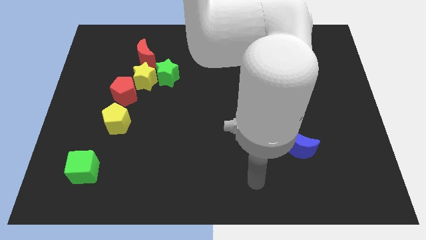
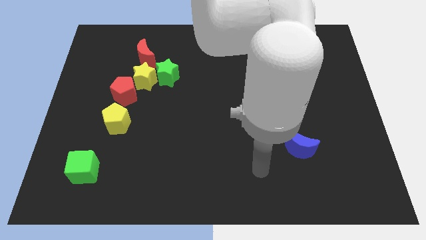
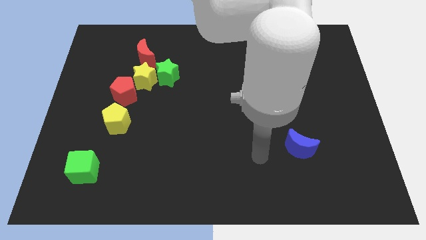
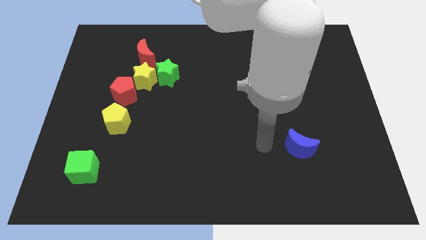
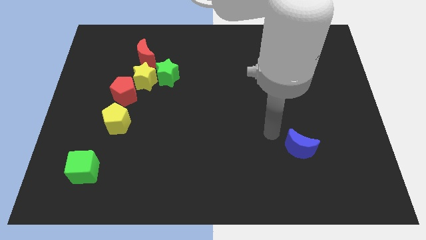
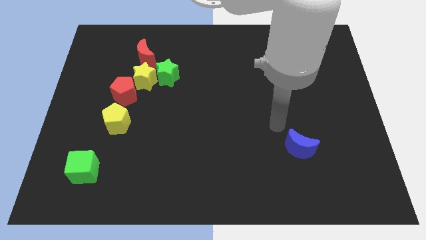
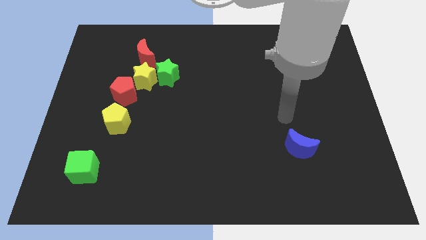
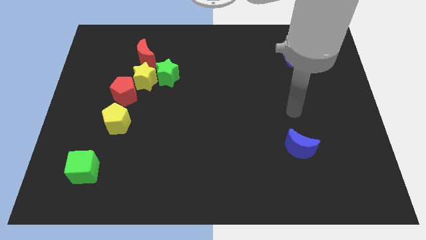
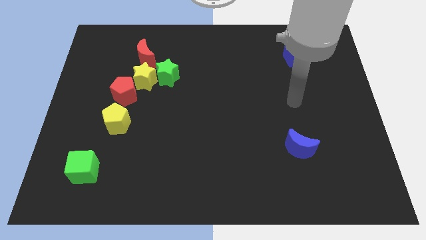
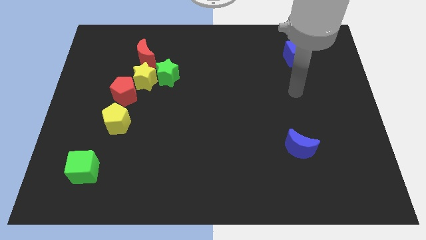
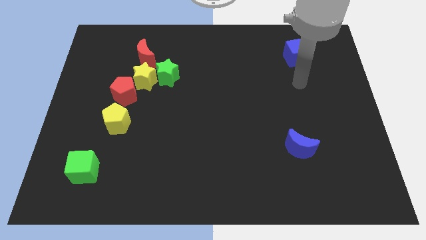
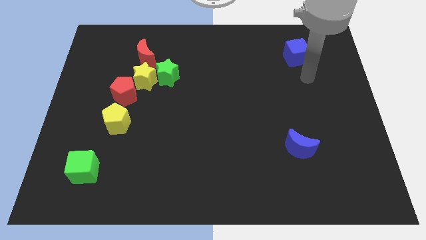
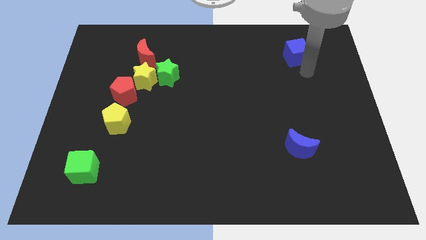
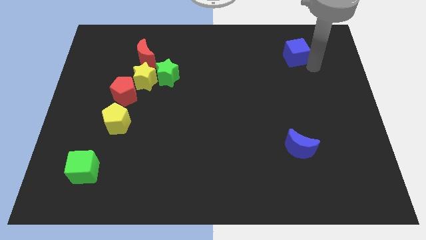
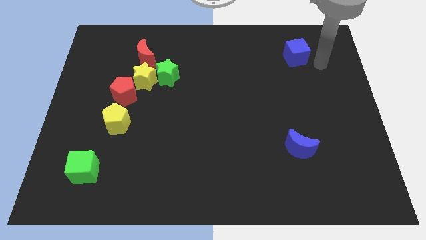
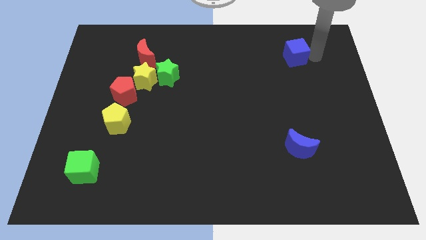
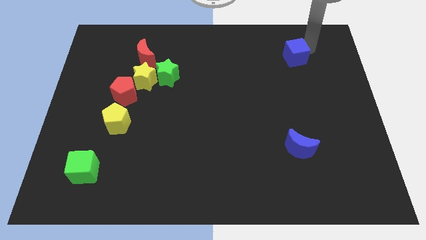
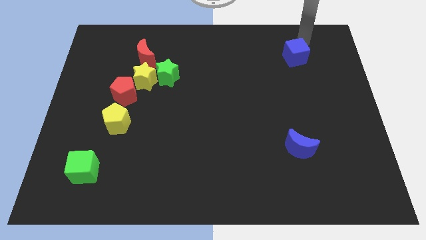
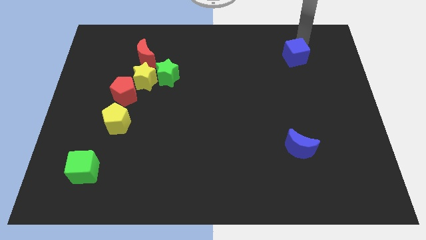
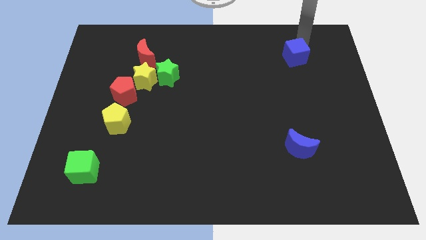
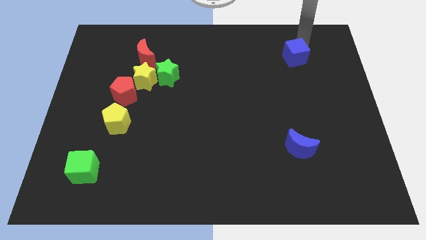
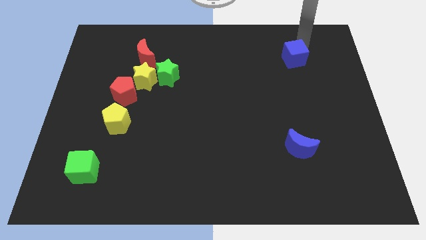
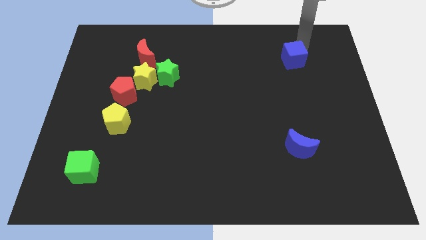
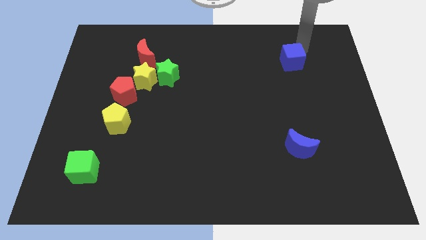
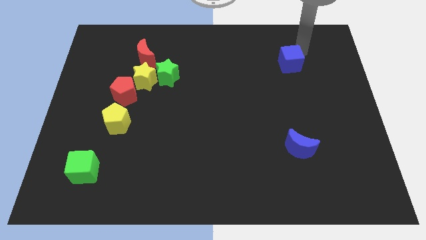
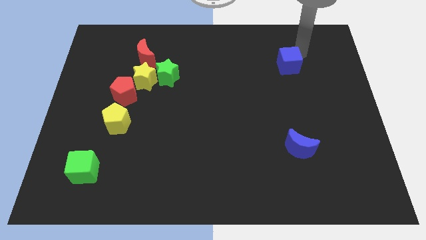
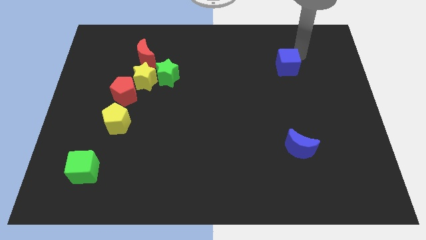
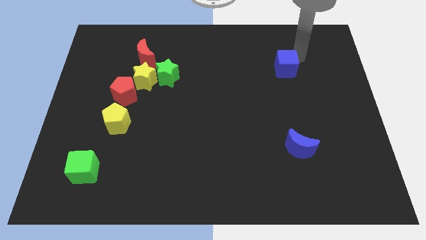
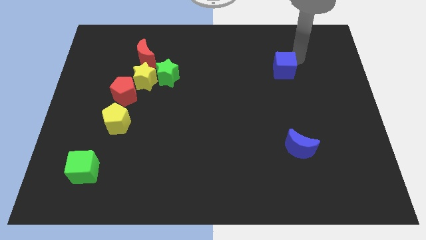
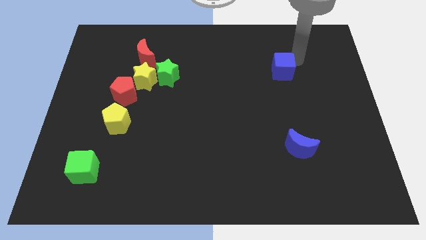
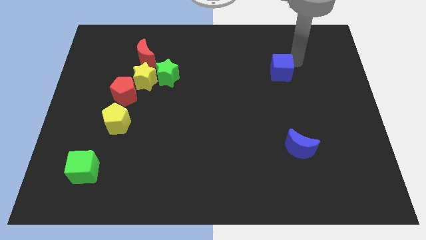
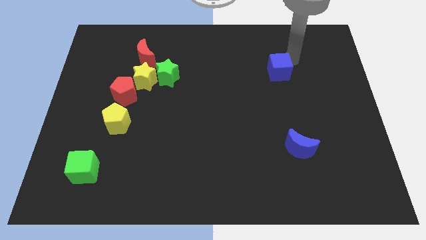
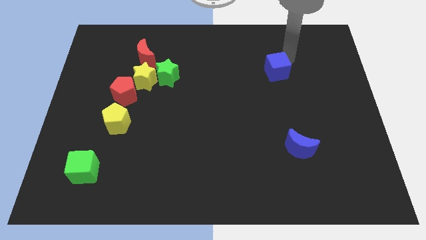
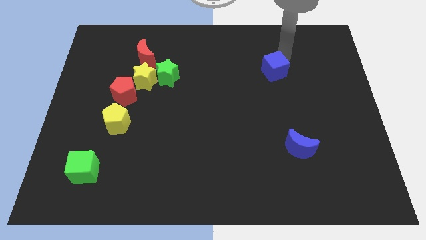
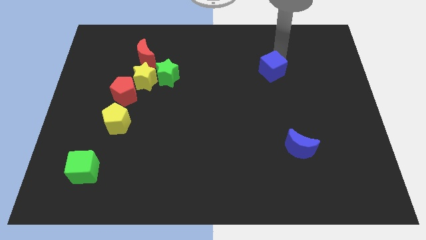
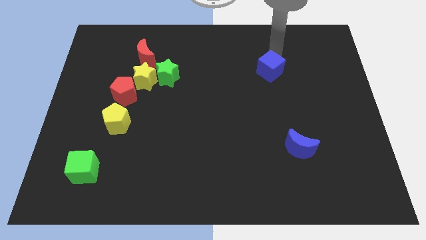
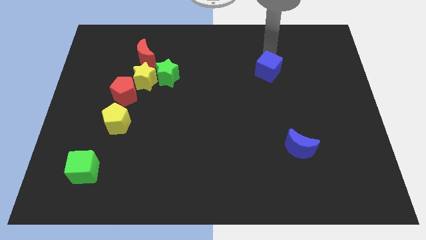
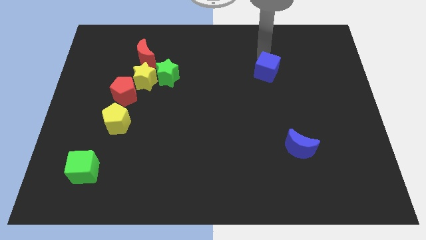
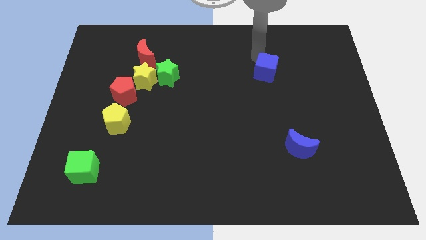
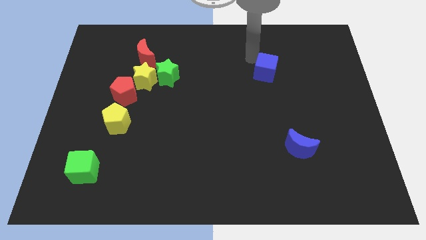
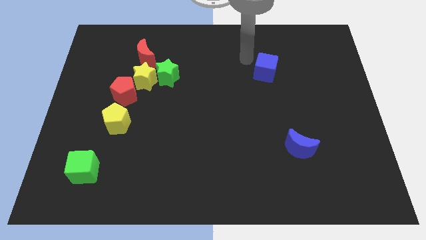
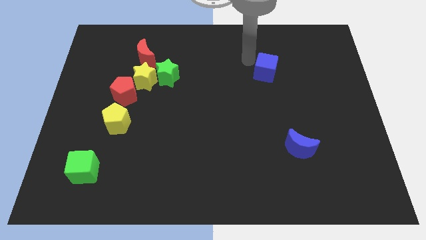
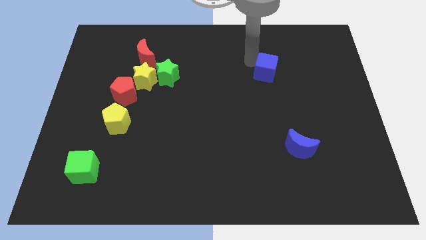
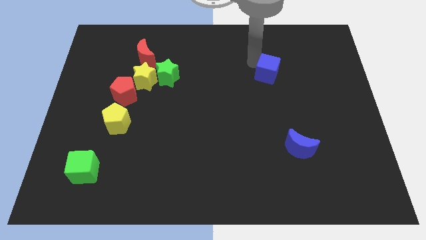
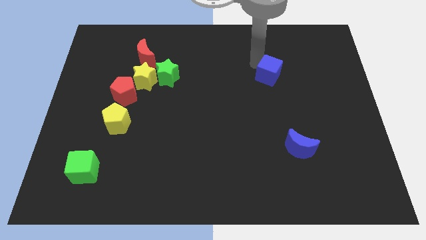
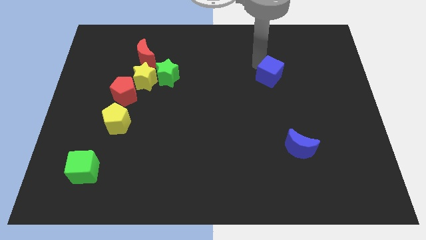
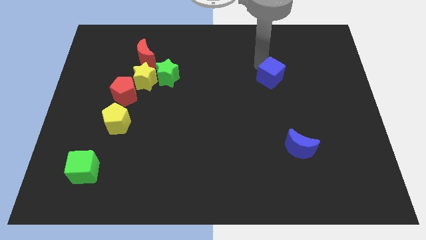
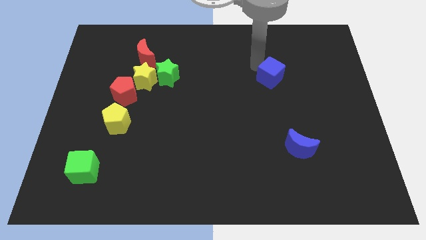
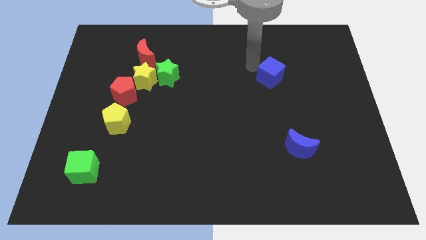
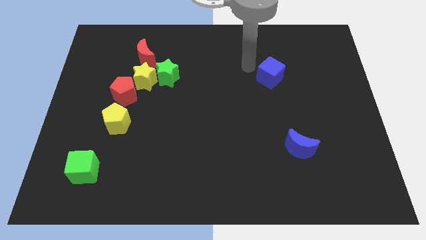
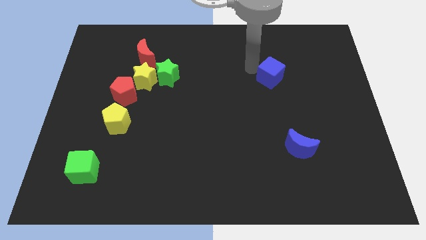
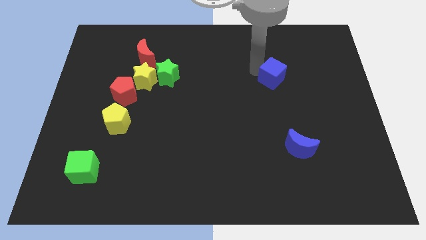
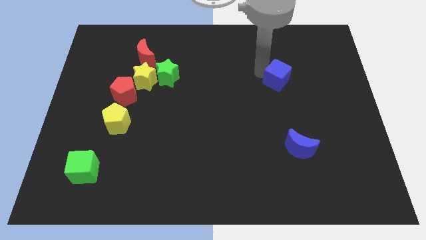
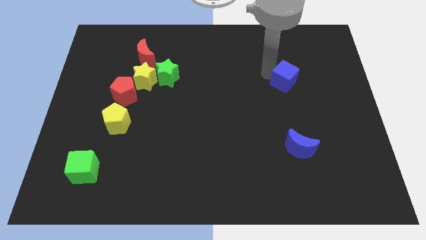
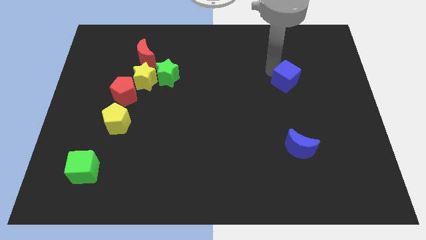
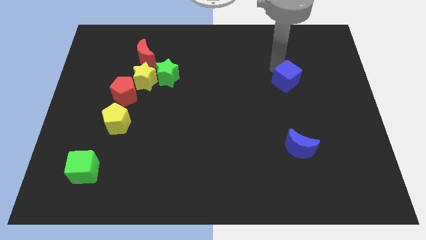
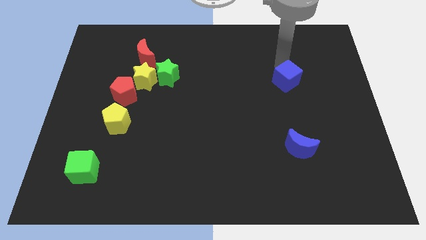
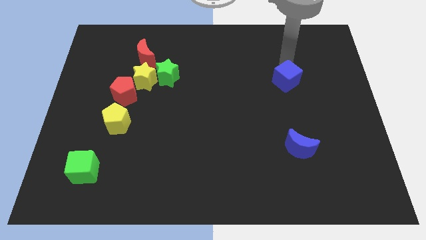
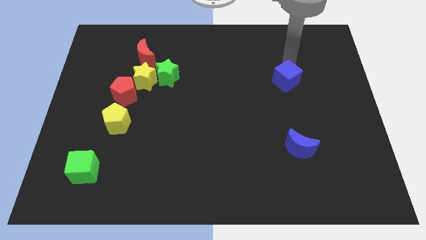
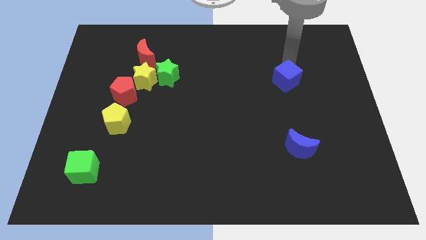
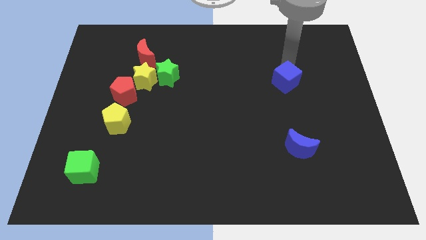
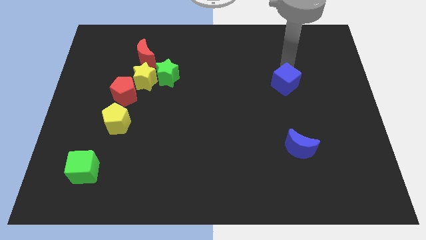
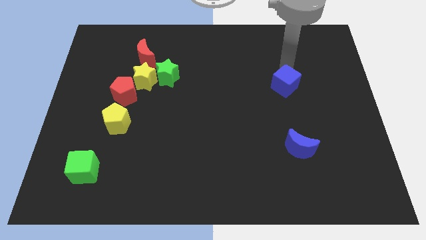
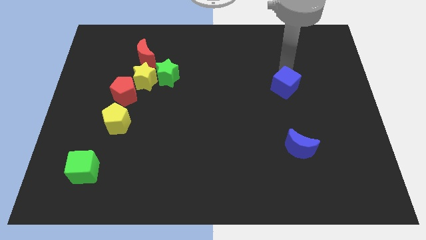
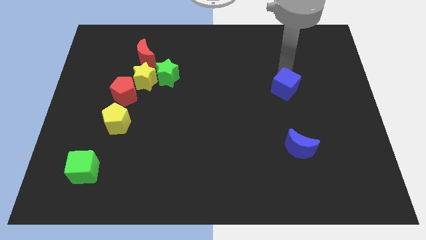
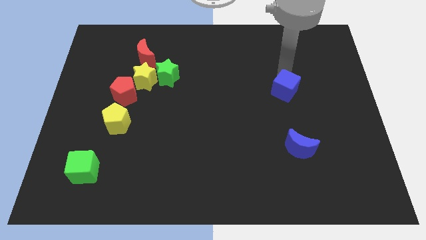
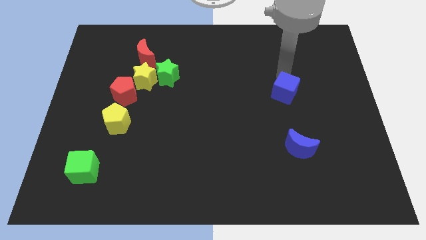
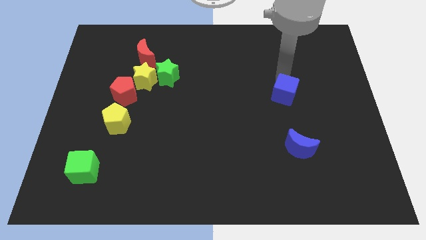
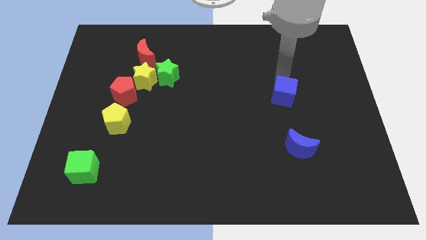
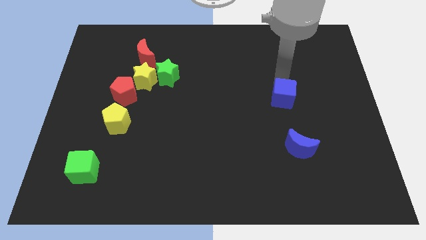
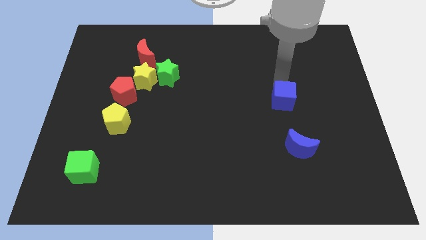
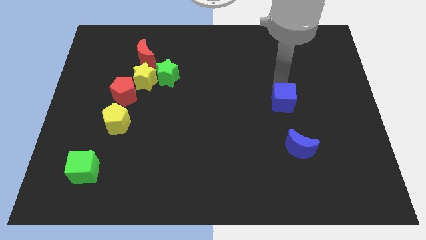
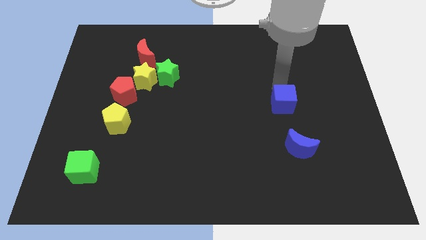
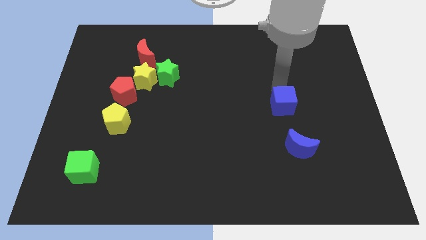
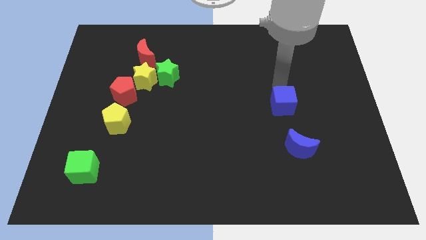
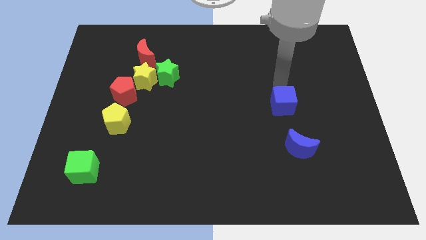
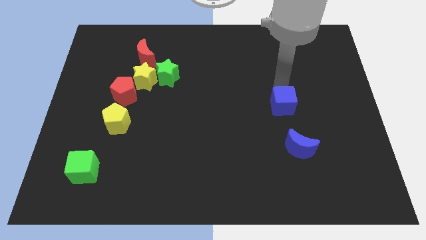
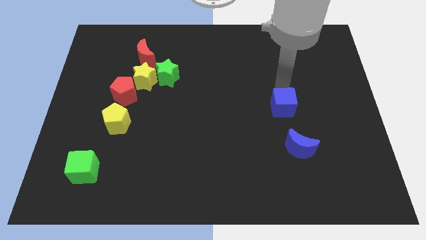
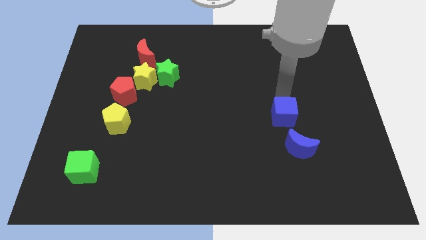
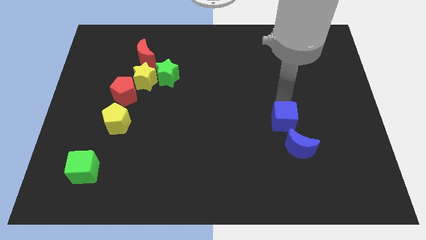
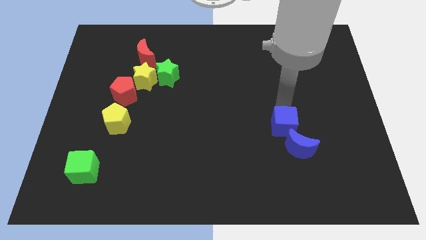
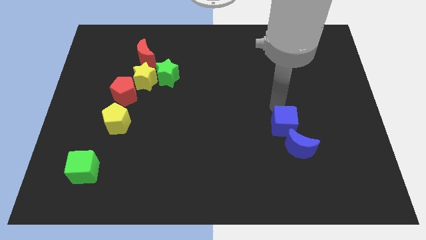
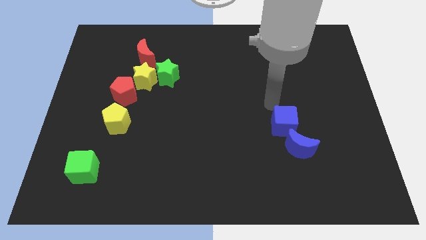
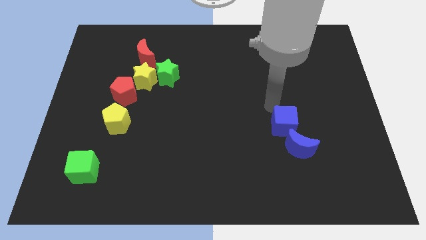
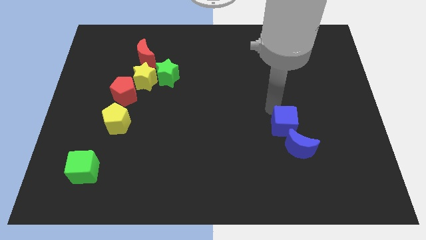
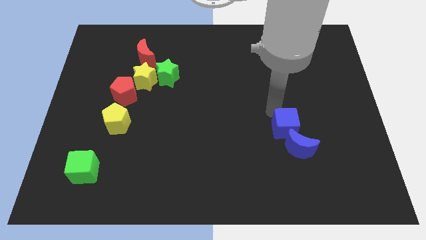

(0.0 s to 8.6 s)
slide the blue cube towards the blue moon
